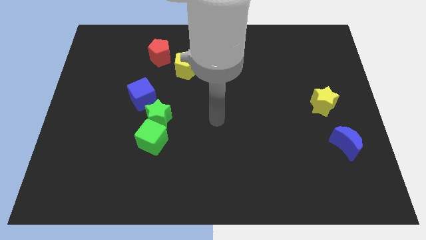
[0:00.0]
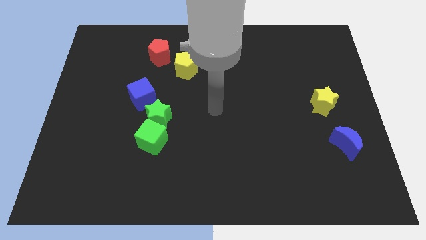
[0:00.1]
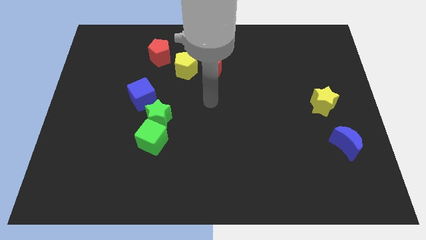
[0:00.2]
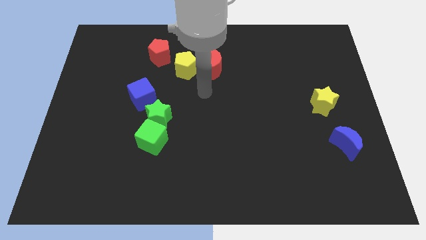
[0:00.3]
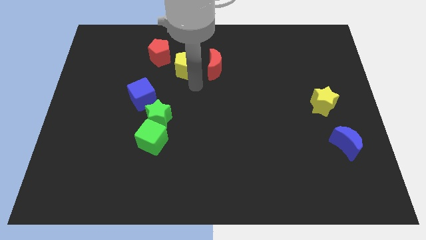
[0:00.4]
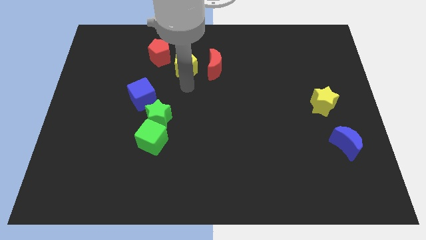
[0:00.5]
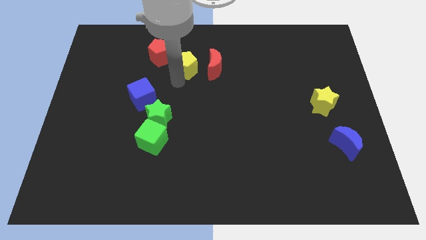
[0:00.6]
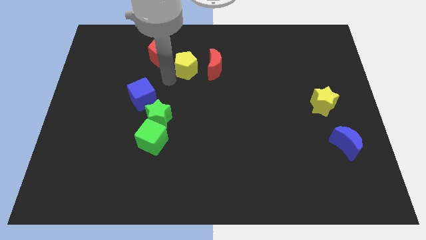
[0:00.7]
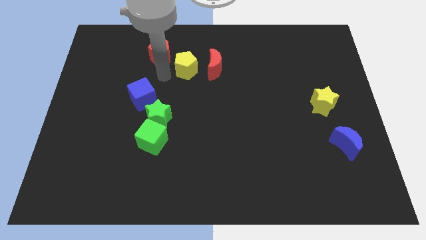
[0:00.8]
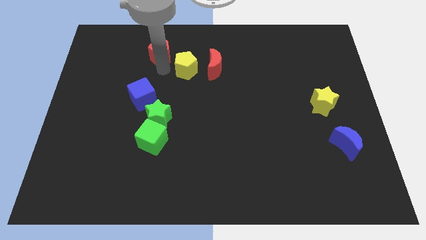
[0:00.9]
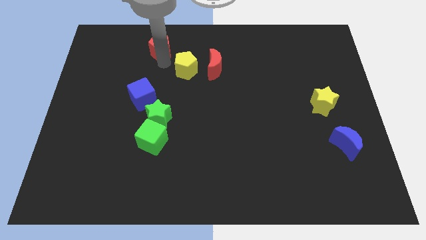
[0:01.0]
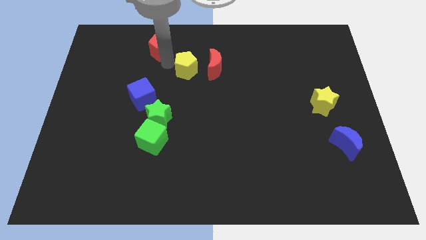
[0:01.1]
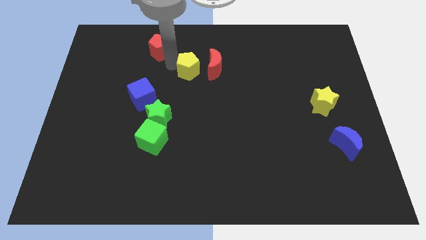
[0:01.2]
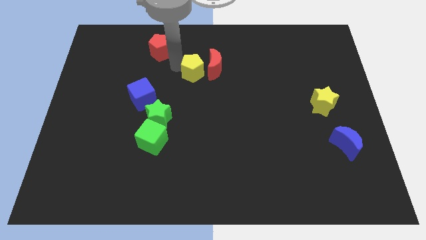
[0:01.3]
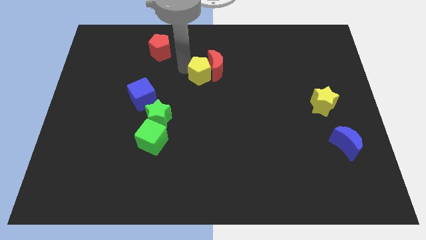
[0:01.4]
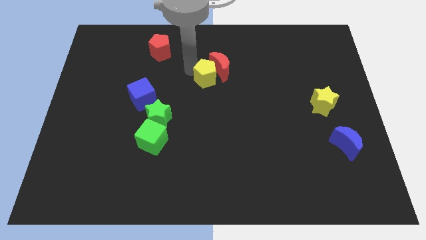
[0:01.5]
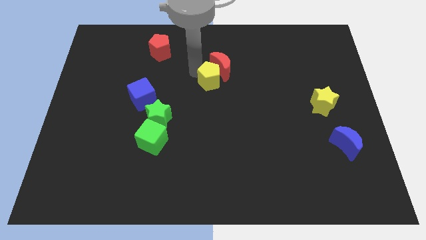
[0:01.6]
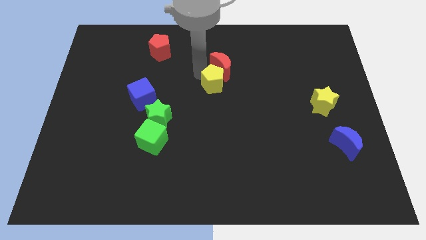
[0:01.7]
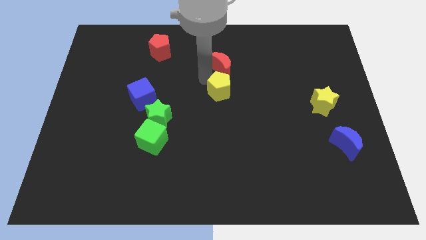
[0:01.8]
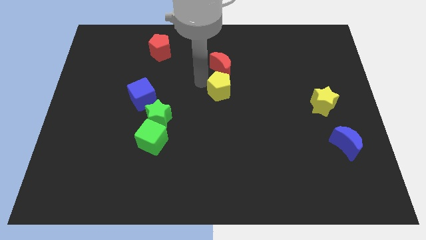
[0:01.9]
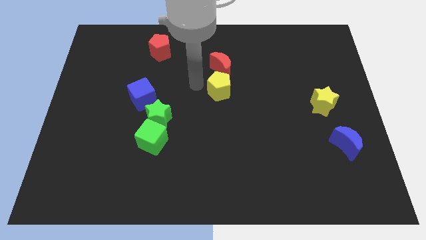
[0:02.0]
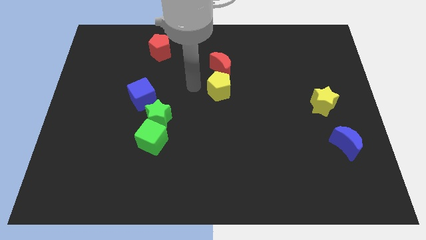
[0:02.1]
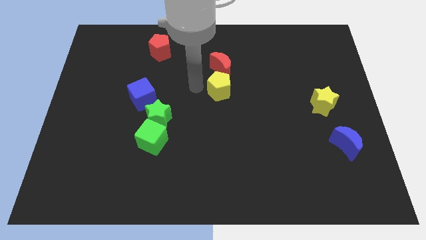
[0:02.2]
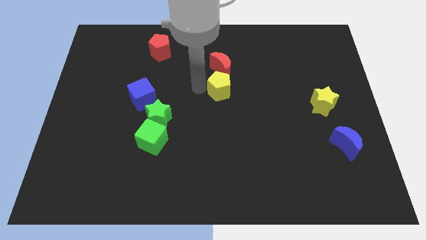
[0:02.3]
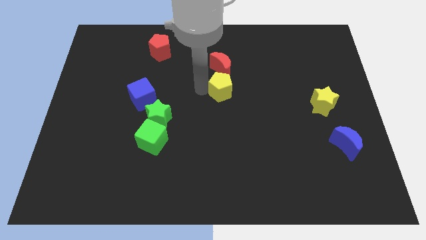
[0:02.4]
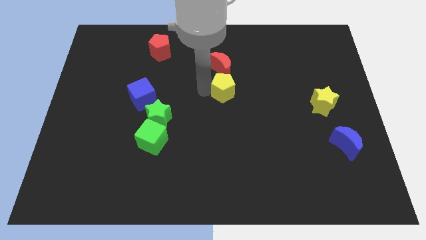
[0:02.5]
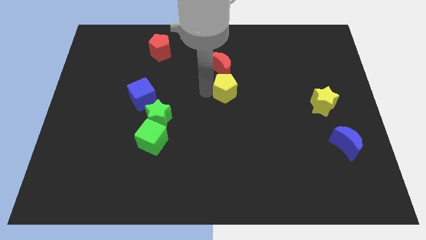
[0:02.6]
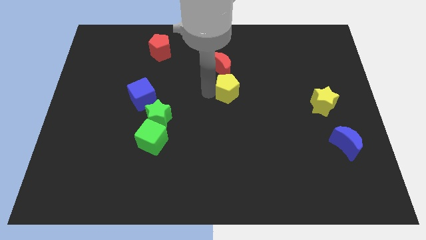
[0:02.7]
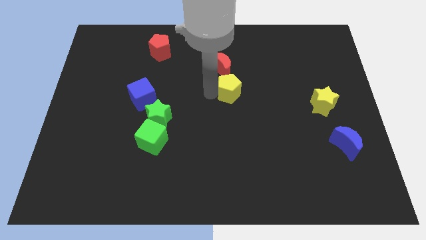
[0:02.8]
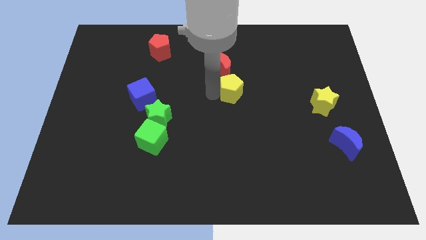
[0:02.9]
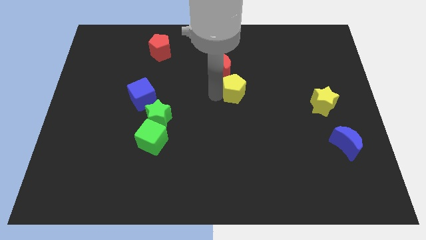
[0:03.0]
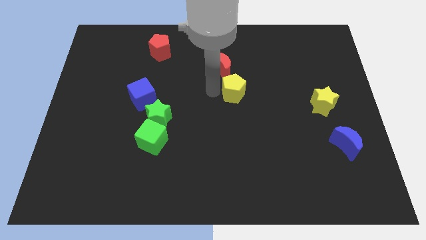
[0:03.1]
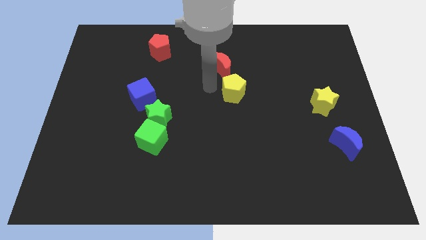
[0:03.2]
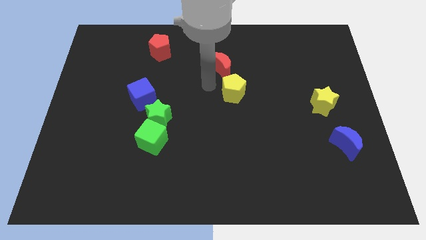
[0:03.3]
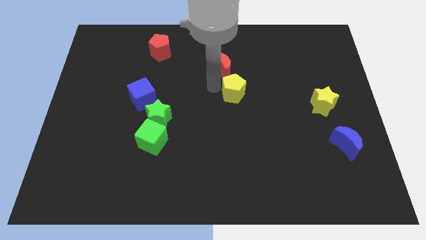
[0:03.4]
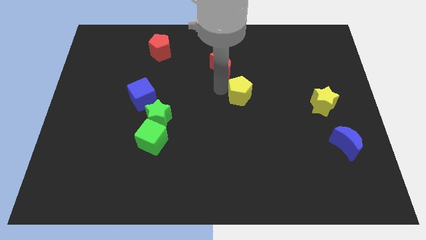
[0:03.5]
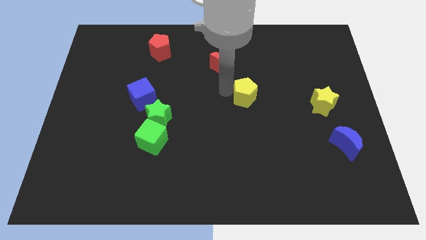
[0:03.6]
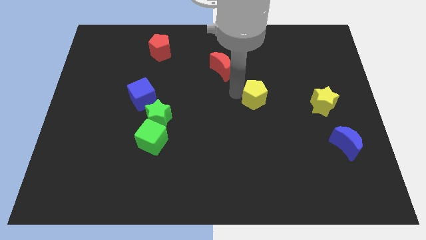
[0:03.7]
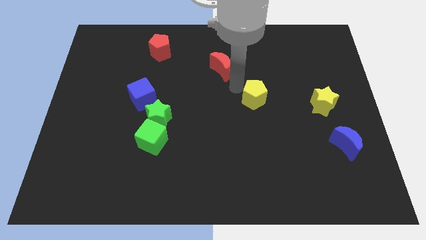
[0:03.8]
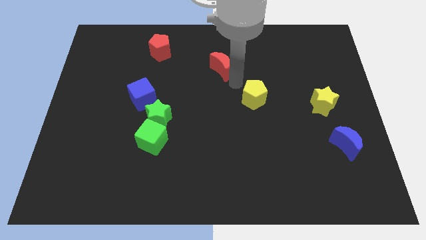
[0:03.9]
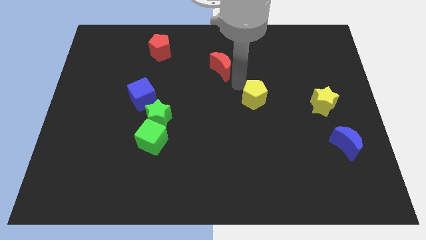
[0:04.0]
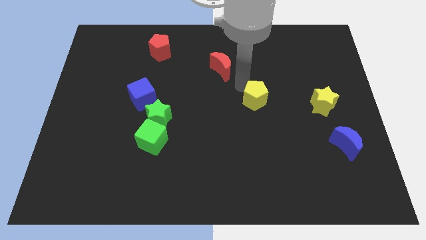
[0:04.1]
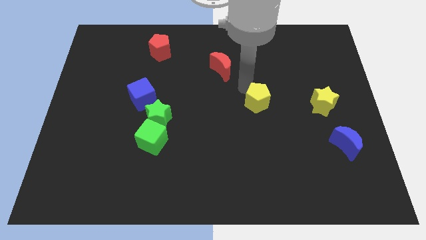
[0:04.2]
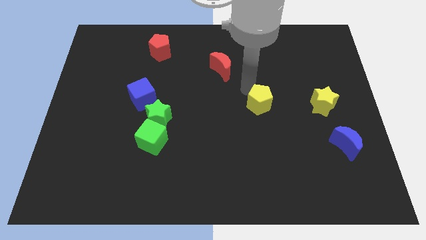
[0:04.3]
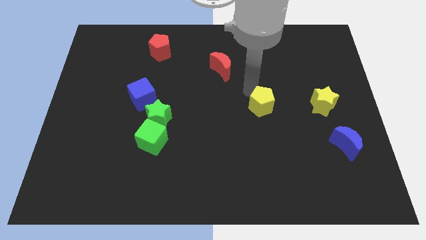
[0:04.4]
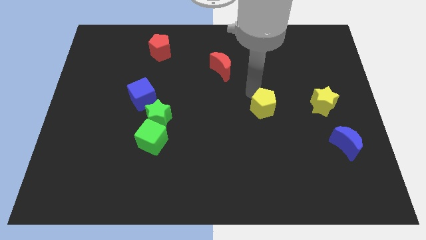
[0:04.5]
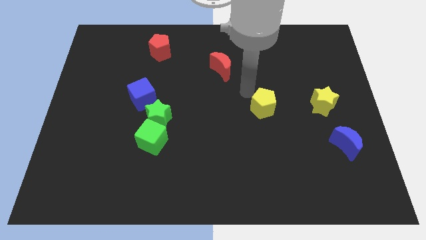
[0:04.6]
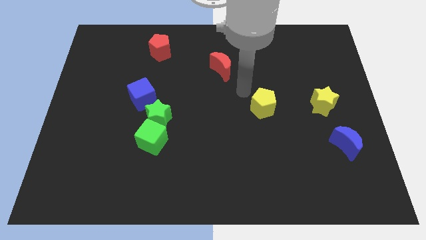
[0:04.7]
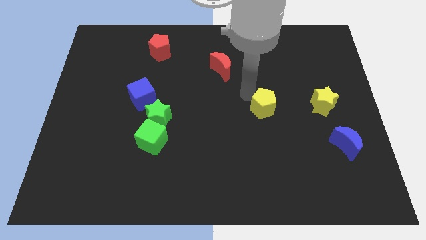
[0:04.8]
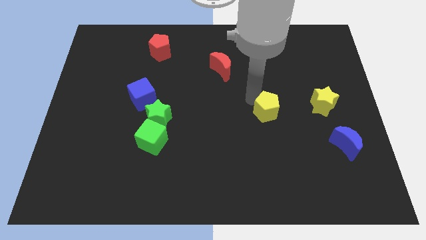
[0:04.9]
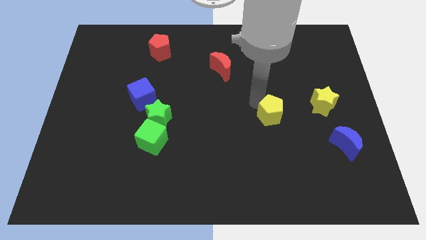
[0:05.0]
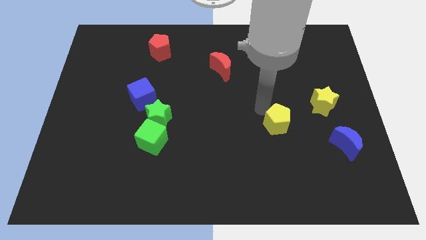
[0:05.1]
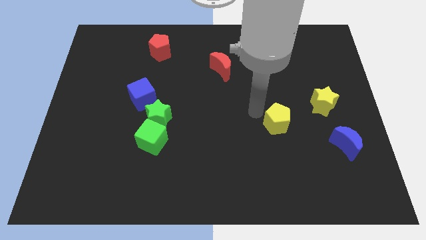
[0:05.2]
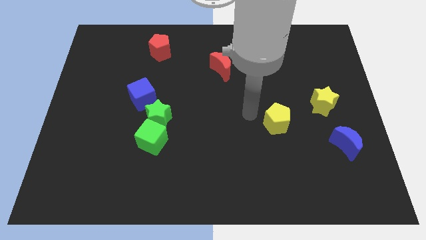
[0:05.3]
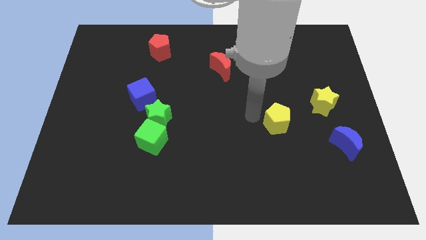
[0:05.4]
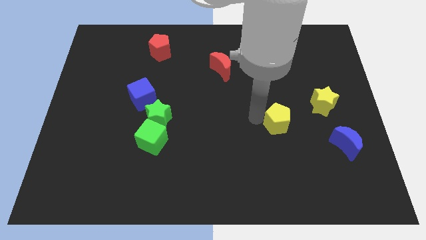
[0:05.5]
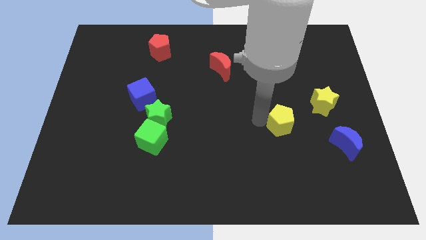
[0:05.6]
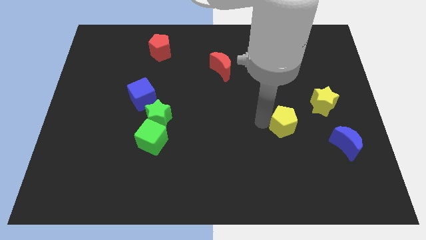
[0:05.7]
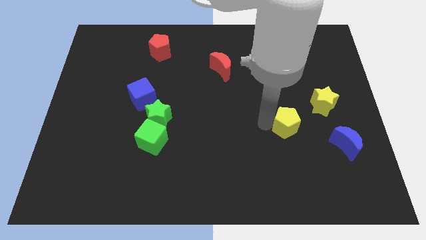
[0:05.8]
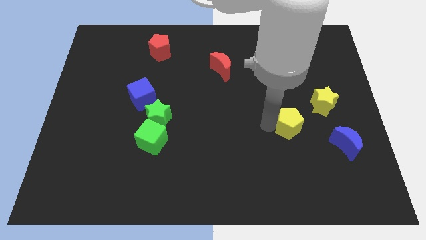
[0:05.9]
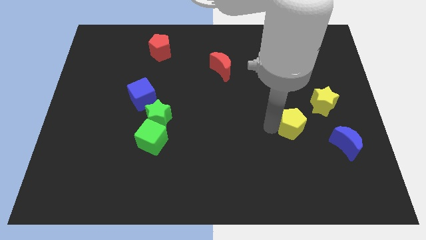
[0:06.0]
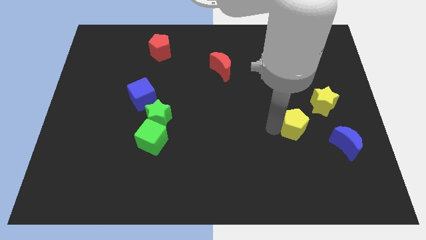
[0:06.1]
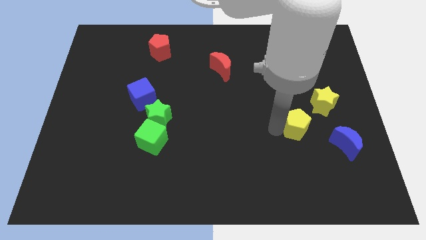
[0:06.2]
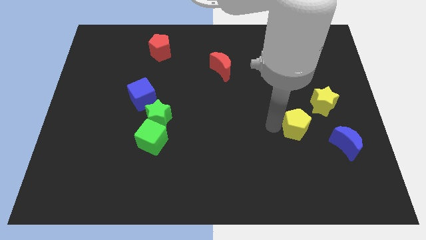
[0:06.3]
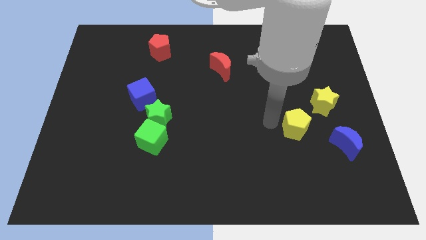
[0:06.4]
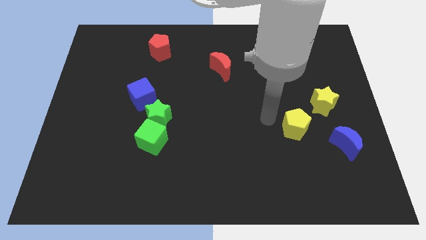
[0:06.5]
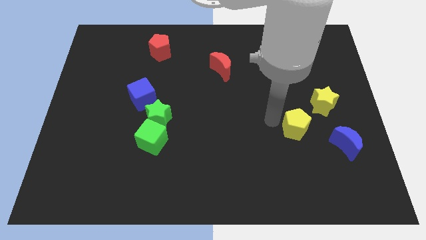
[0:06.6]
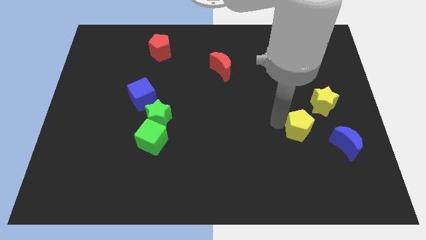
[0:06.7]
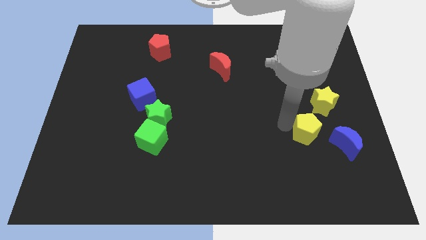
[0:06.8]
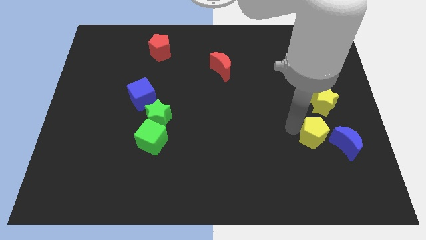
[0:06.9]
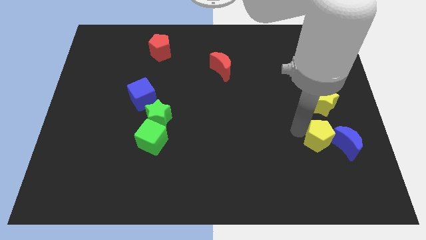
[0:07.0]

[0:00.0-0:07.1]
slide the yellow pentagon to the blue moon
